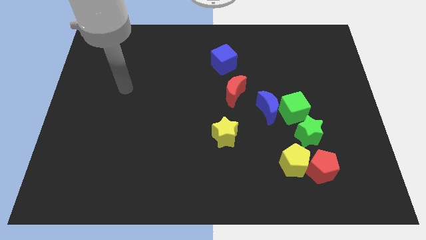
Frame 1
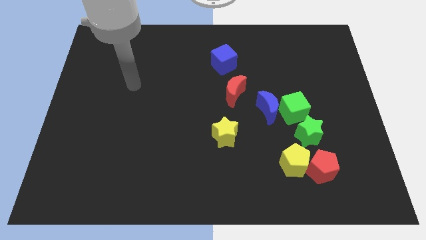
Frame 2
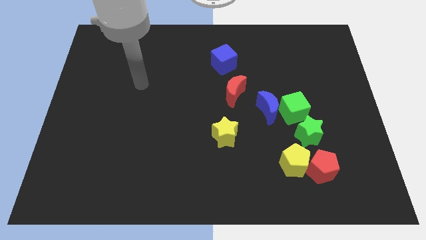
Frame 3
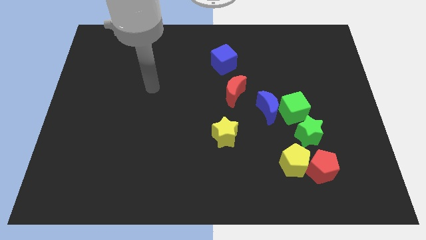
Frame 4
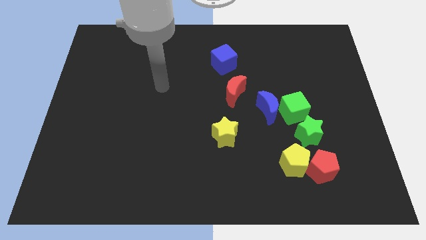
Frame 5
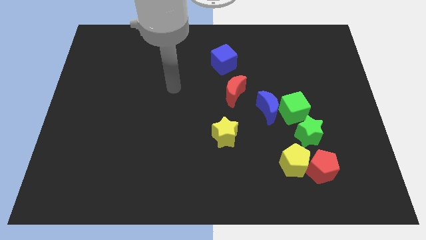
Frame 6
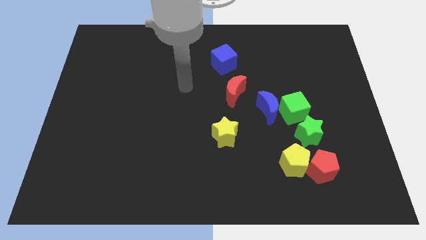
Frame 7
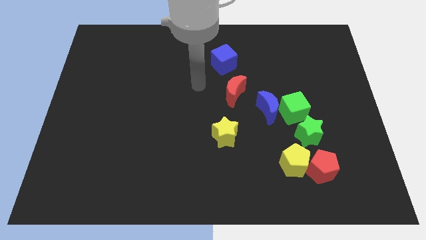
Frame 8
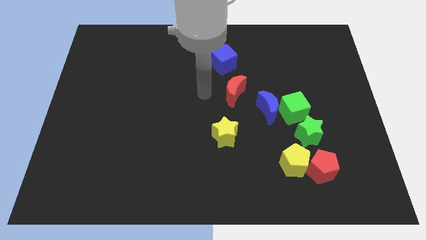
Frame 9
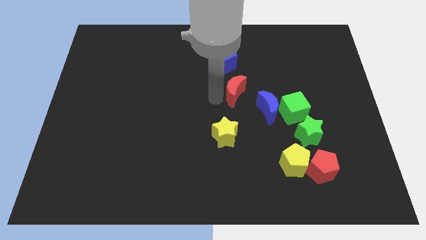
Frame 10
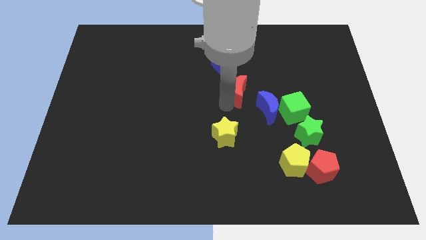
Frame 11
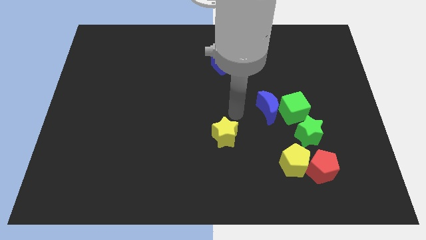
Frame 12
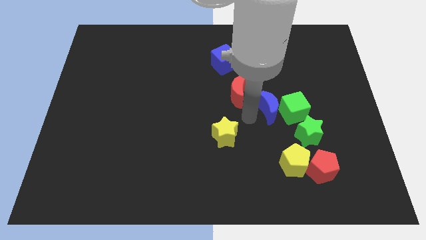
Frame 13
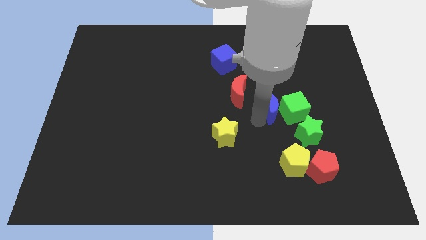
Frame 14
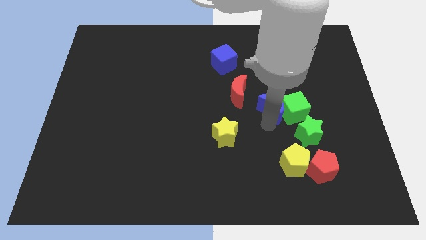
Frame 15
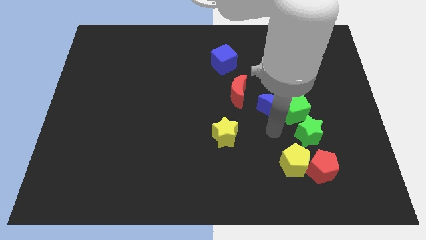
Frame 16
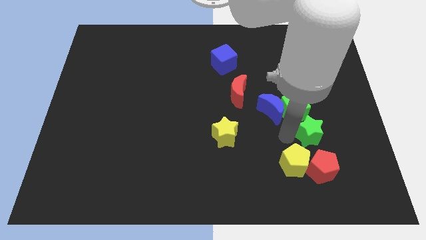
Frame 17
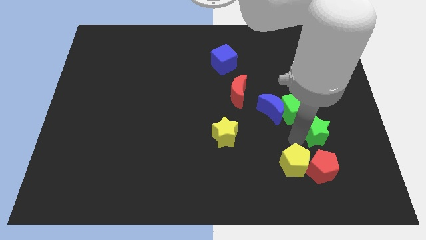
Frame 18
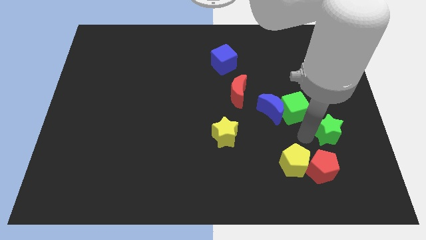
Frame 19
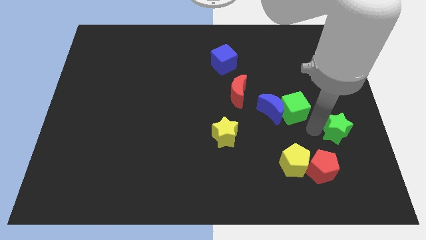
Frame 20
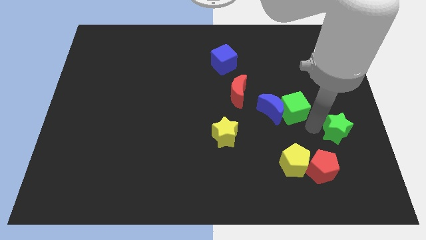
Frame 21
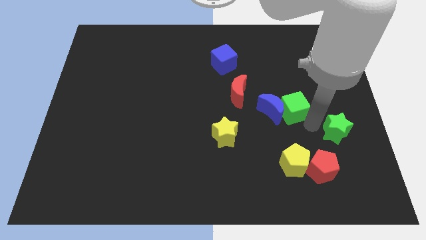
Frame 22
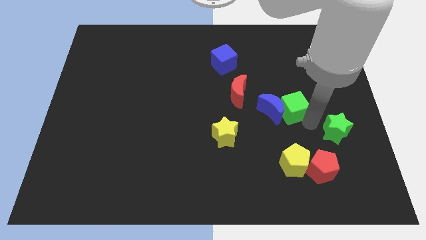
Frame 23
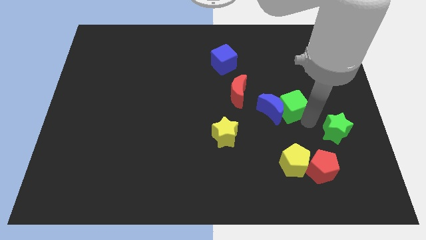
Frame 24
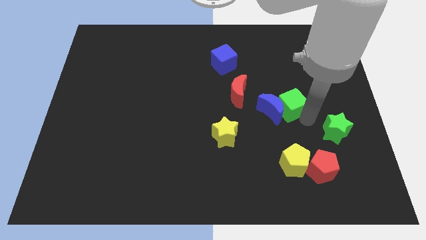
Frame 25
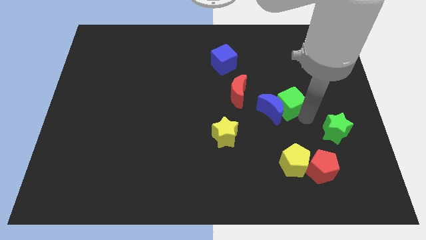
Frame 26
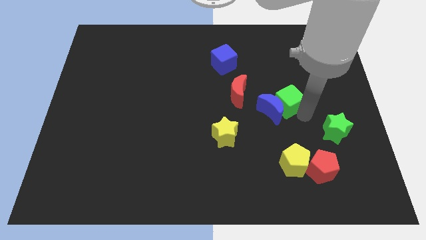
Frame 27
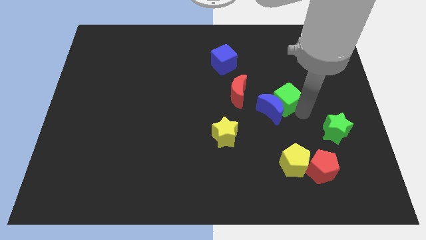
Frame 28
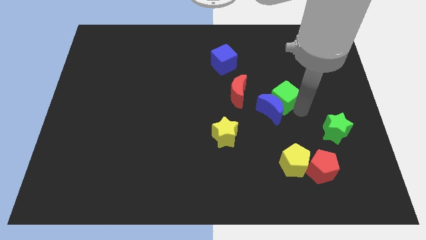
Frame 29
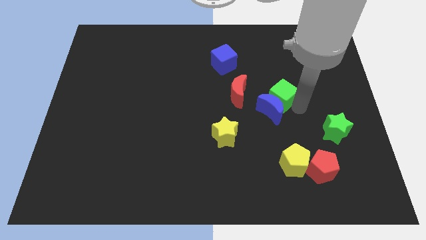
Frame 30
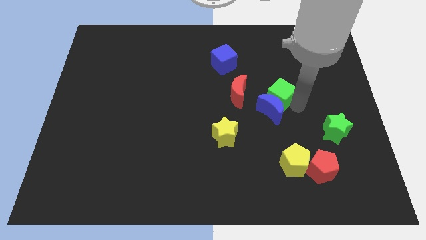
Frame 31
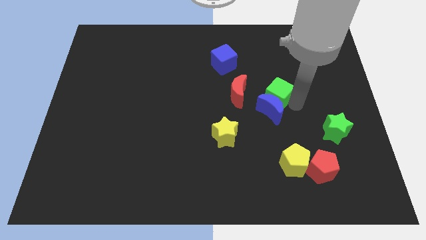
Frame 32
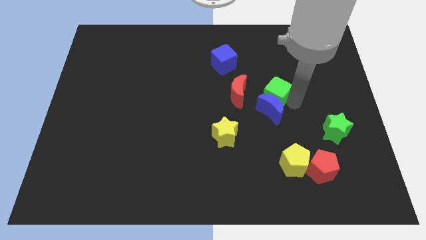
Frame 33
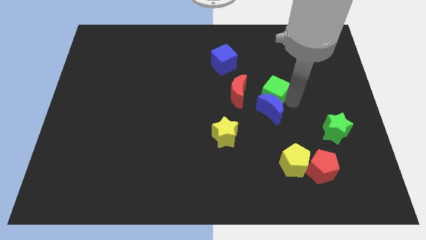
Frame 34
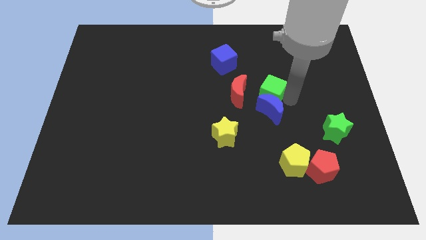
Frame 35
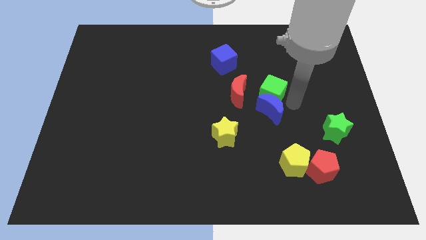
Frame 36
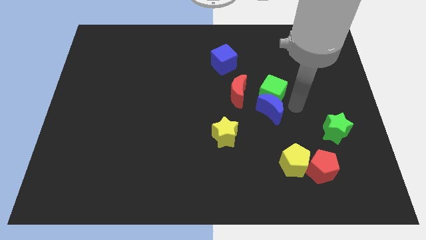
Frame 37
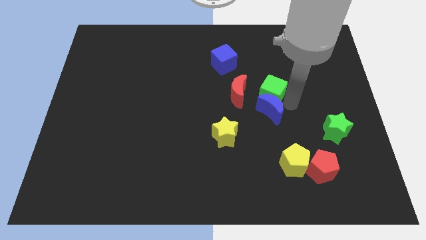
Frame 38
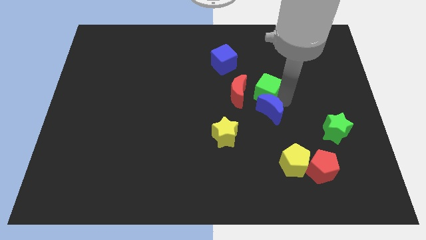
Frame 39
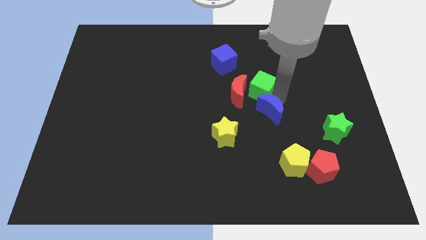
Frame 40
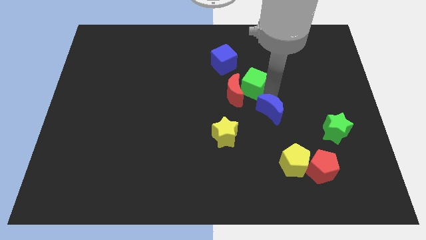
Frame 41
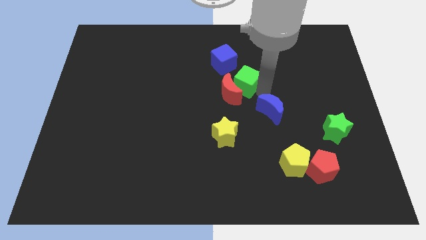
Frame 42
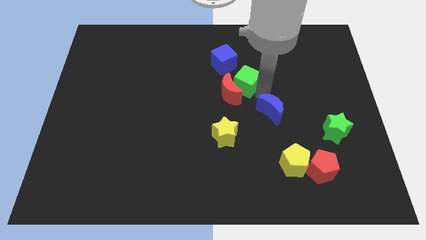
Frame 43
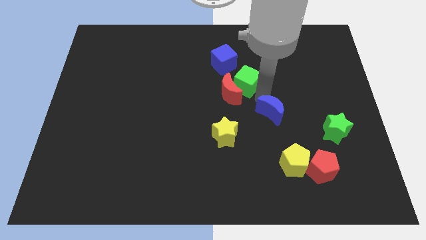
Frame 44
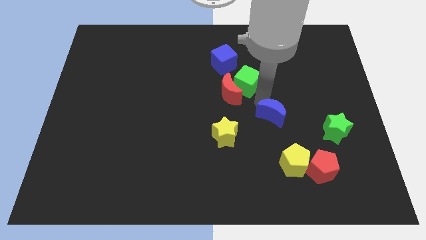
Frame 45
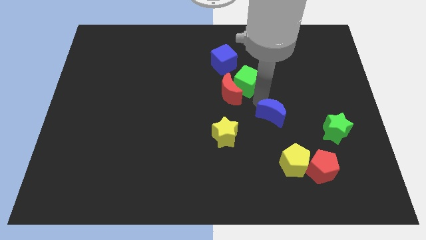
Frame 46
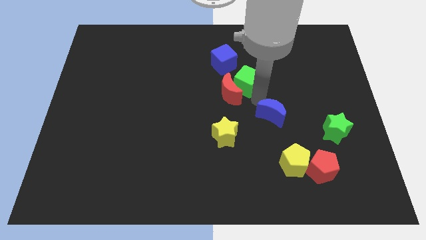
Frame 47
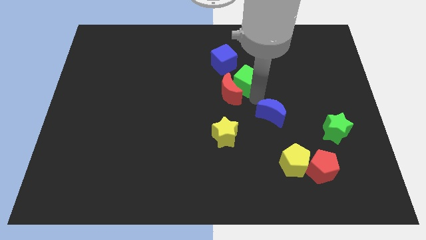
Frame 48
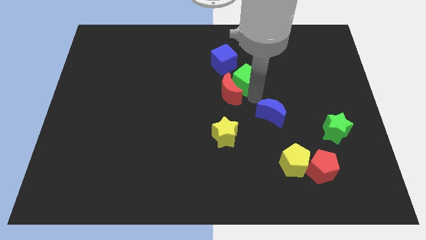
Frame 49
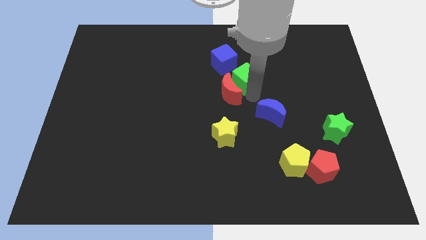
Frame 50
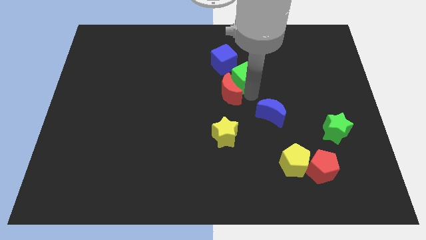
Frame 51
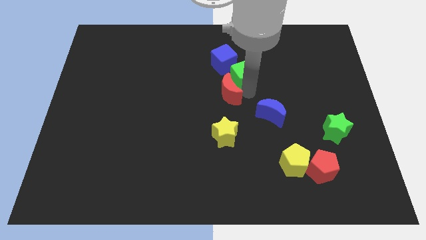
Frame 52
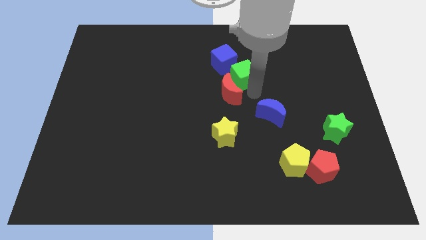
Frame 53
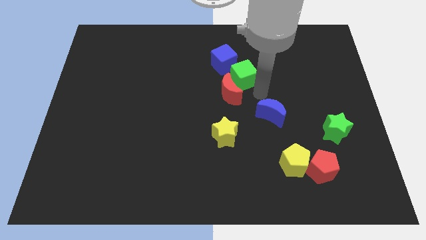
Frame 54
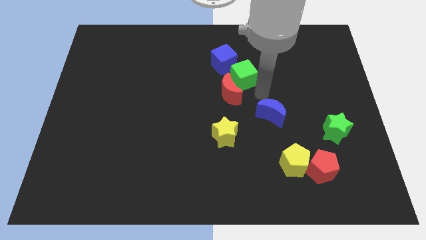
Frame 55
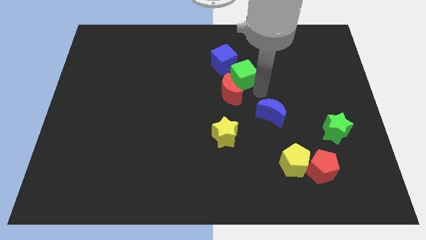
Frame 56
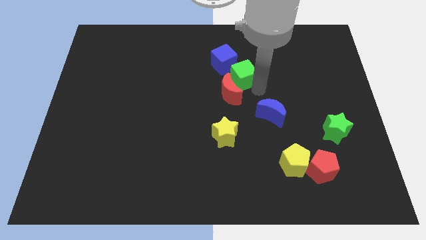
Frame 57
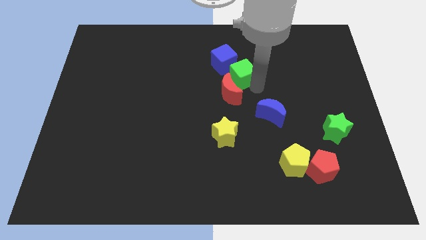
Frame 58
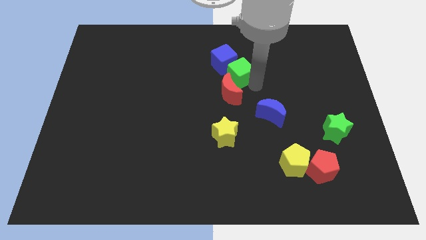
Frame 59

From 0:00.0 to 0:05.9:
move the green cube next to the blue cube

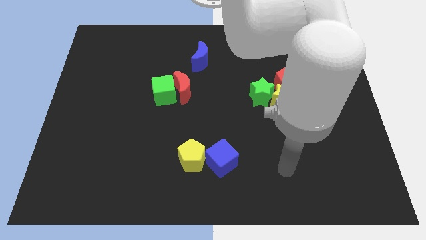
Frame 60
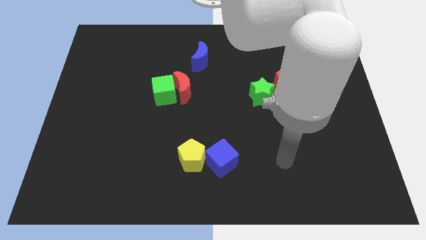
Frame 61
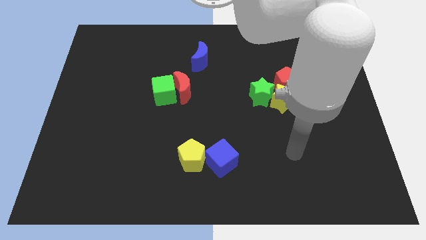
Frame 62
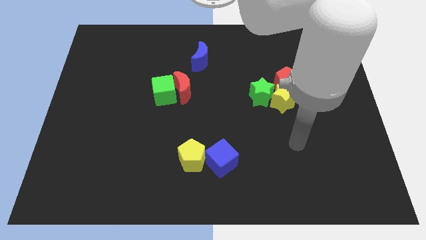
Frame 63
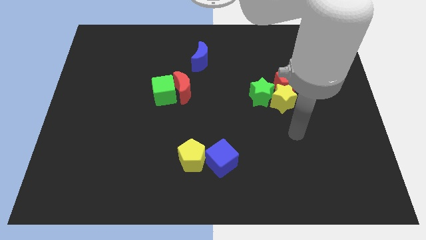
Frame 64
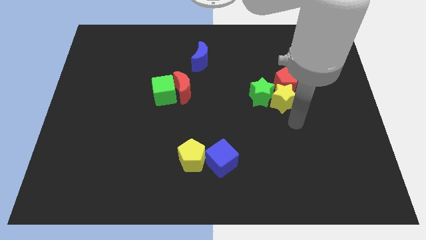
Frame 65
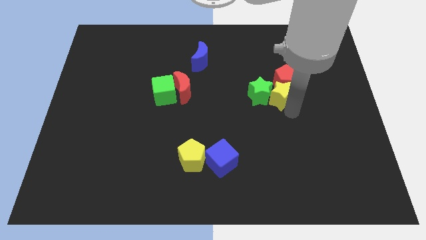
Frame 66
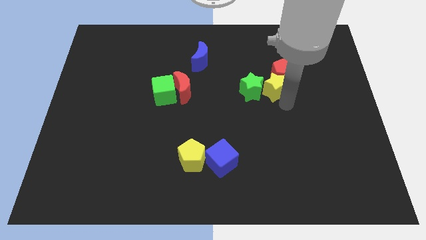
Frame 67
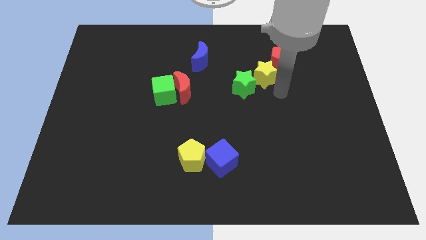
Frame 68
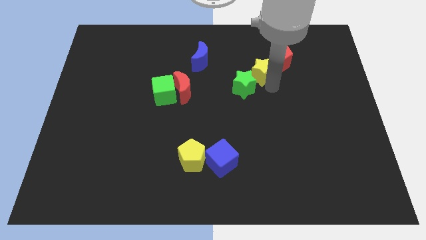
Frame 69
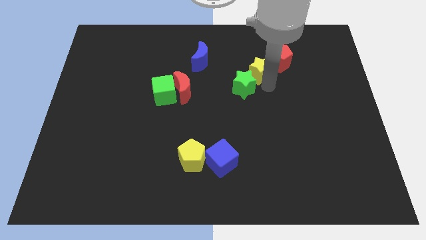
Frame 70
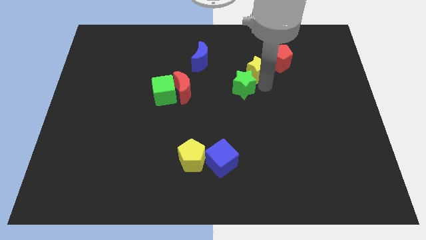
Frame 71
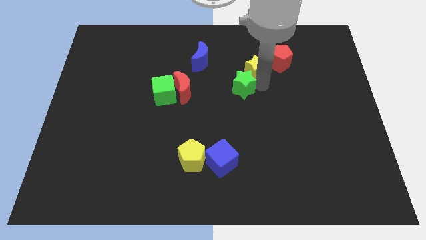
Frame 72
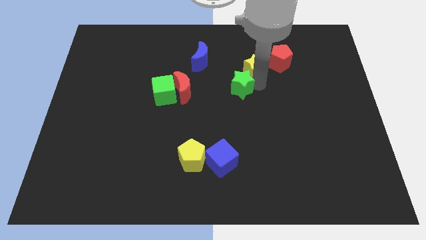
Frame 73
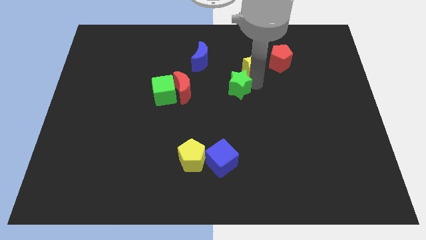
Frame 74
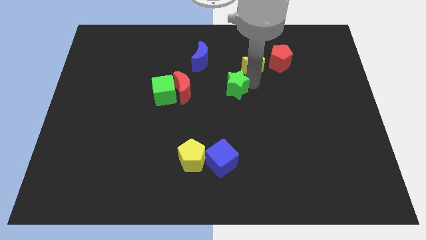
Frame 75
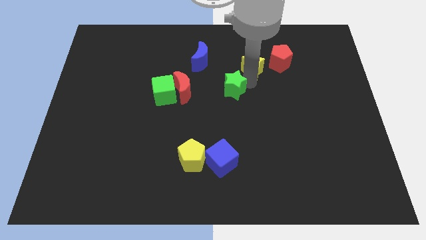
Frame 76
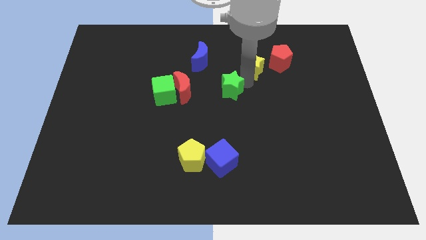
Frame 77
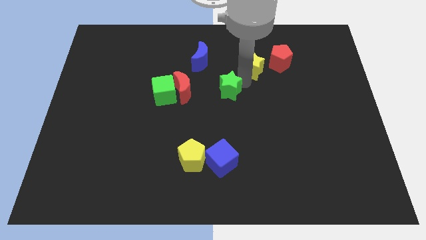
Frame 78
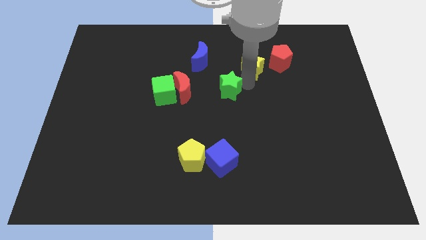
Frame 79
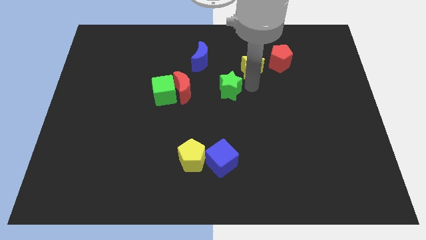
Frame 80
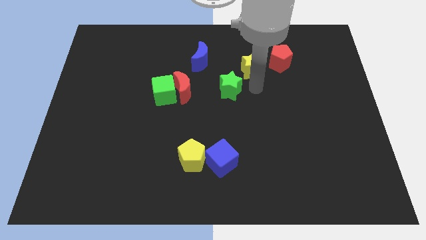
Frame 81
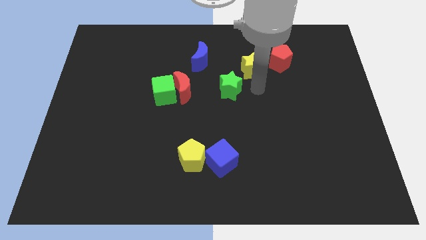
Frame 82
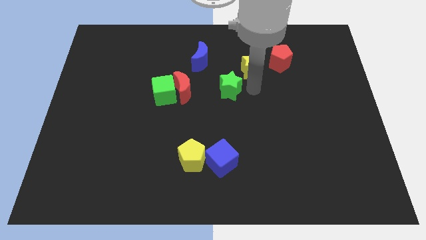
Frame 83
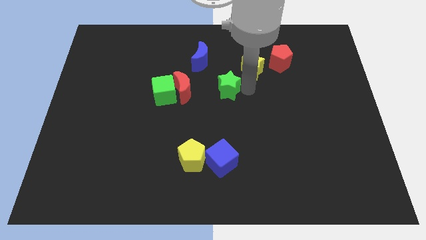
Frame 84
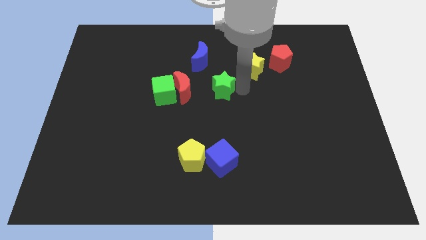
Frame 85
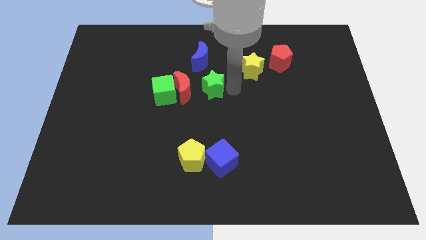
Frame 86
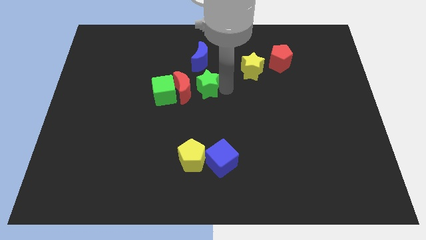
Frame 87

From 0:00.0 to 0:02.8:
slide the green star close to the red moon
